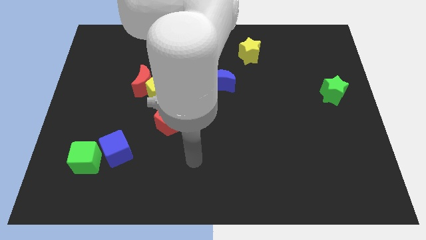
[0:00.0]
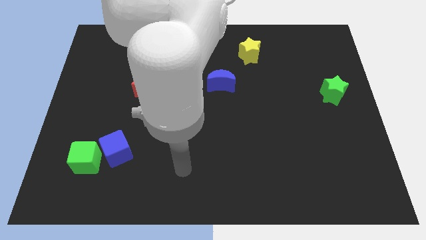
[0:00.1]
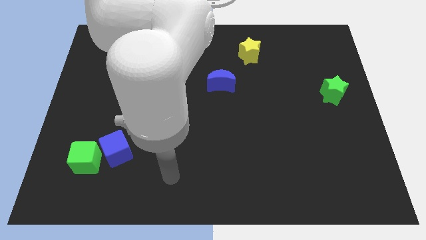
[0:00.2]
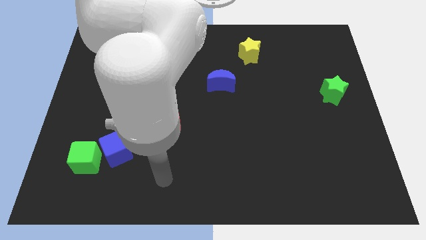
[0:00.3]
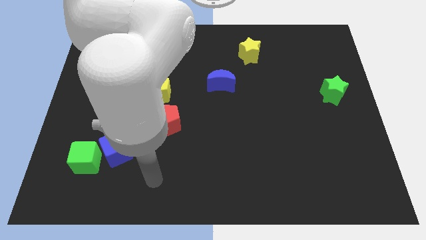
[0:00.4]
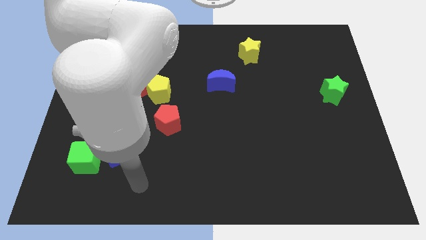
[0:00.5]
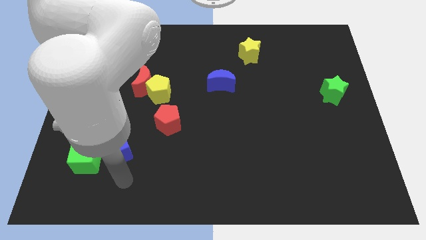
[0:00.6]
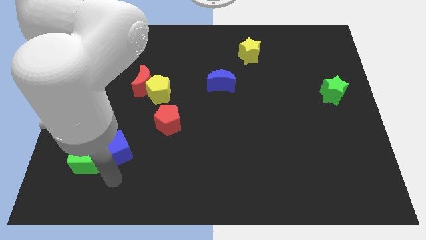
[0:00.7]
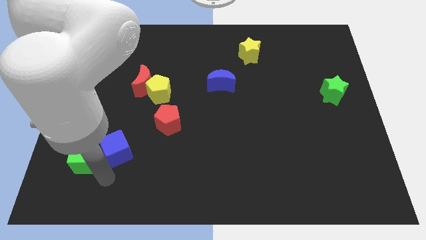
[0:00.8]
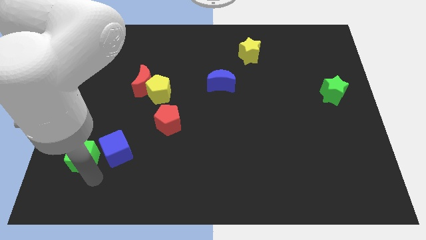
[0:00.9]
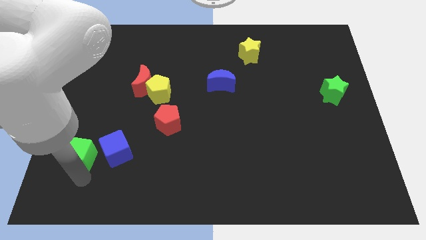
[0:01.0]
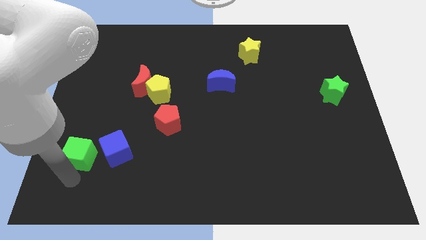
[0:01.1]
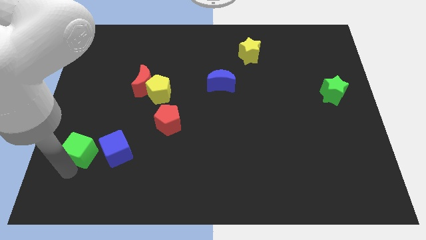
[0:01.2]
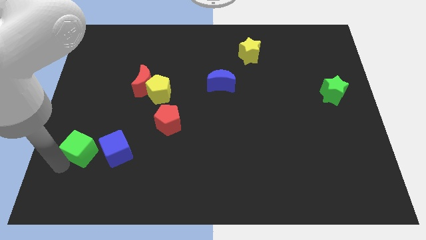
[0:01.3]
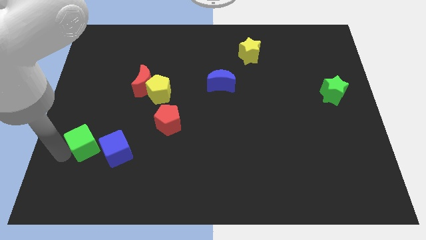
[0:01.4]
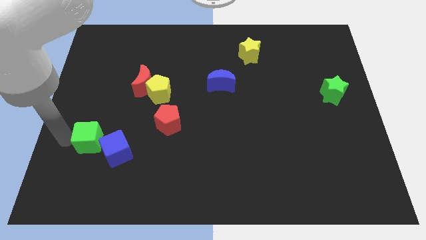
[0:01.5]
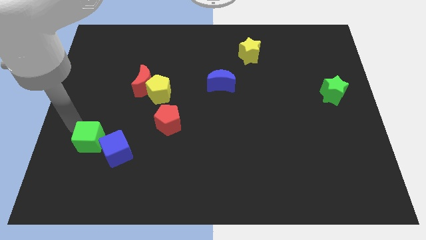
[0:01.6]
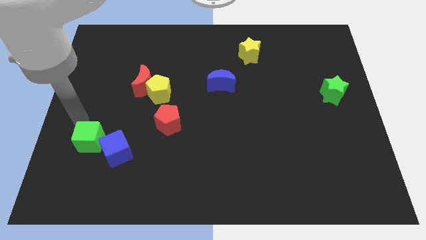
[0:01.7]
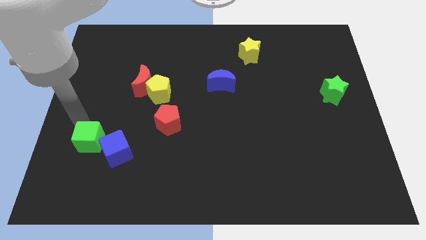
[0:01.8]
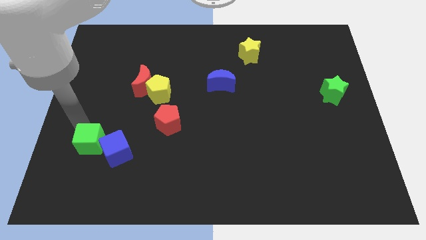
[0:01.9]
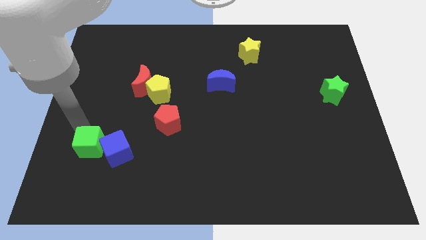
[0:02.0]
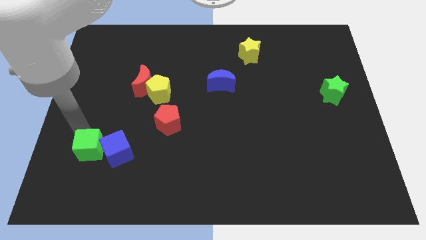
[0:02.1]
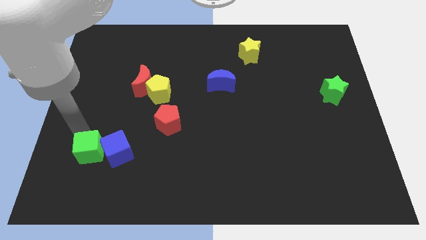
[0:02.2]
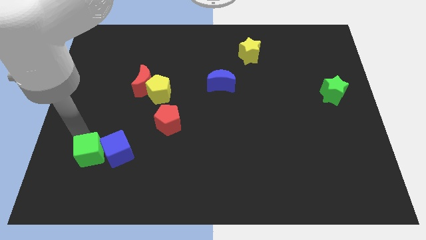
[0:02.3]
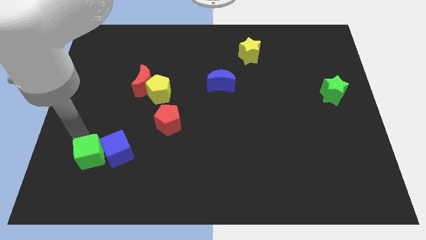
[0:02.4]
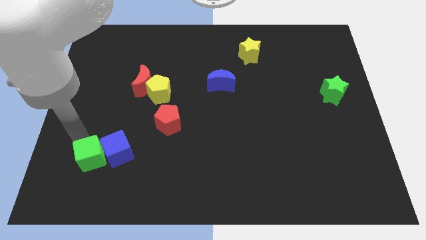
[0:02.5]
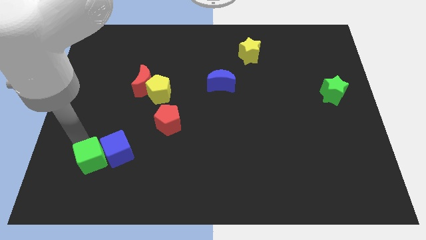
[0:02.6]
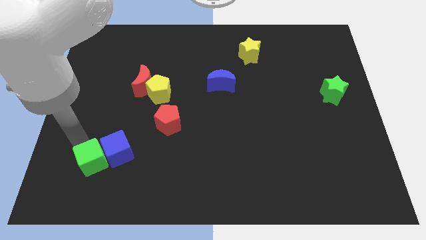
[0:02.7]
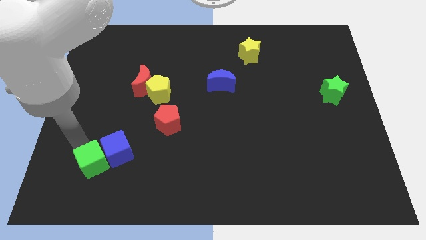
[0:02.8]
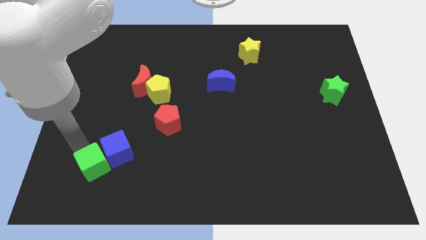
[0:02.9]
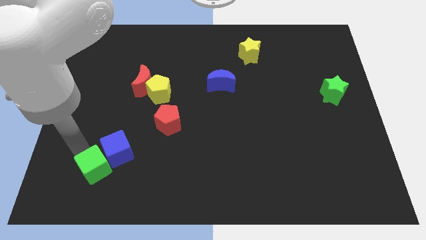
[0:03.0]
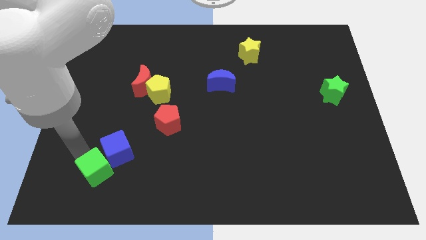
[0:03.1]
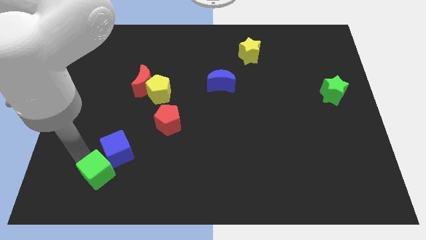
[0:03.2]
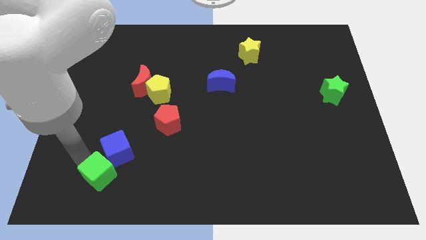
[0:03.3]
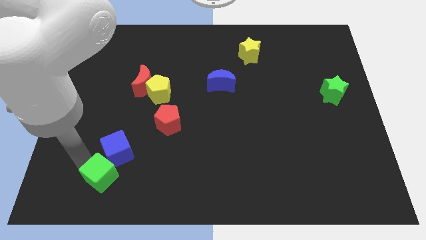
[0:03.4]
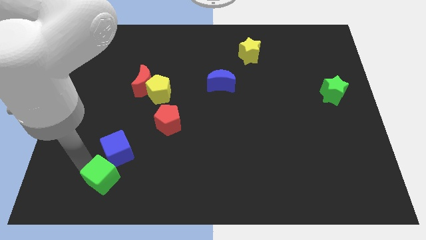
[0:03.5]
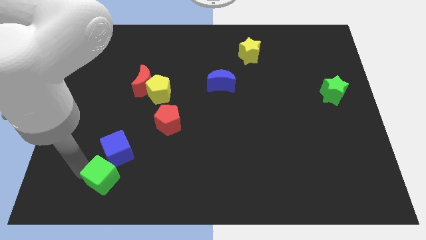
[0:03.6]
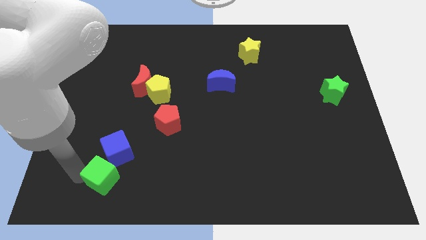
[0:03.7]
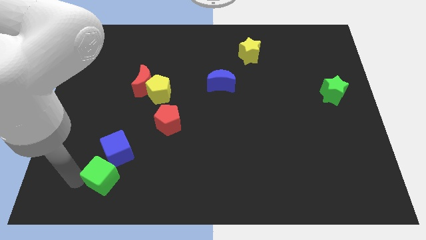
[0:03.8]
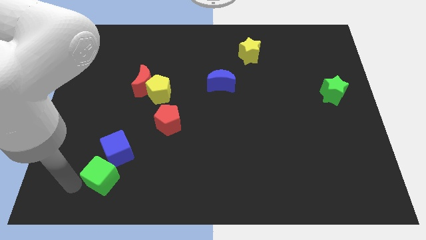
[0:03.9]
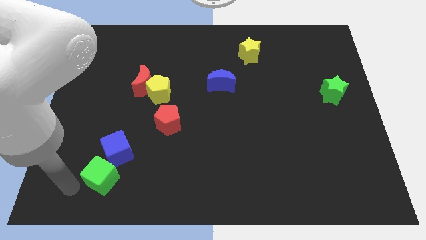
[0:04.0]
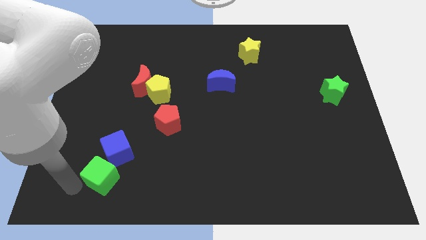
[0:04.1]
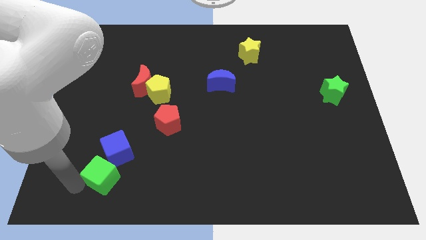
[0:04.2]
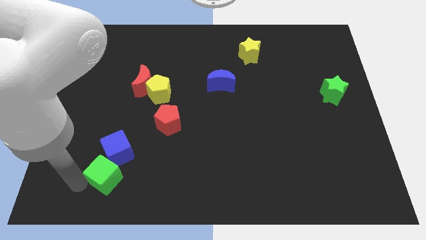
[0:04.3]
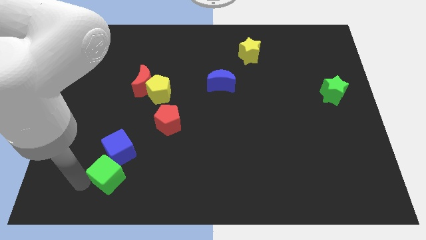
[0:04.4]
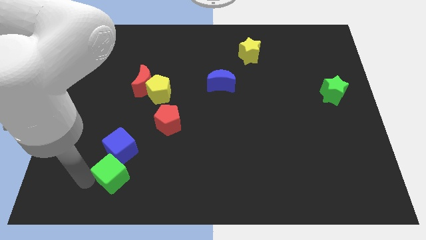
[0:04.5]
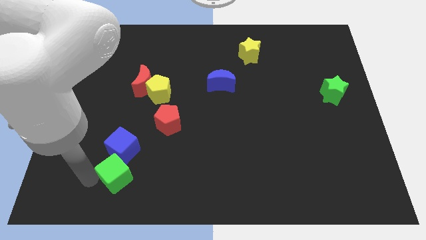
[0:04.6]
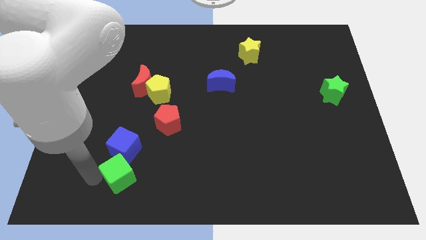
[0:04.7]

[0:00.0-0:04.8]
move the green cube right a little

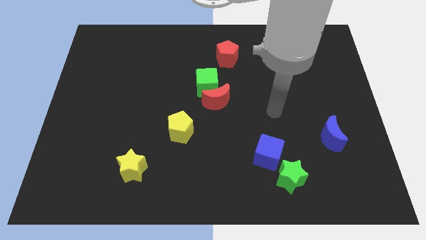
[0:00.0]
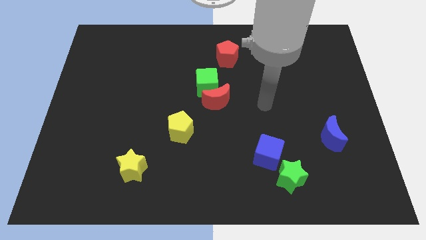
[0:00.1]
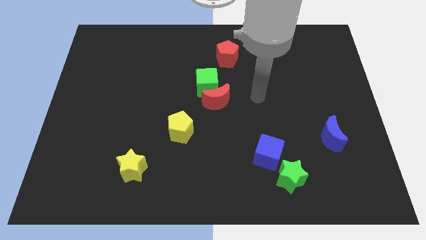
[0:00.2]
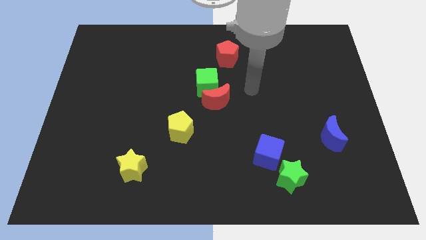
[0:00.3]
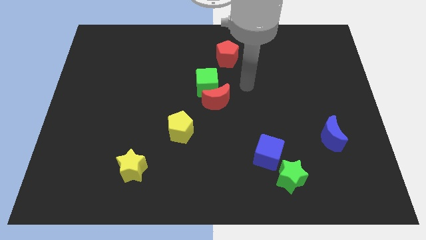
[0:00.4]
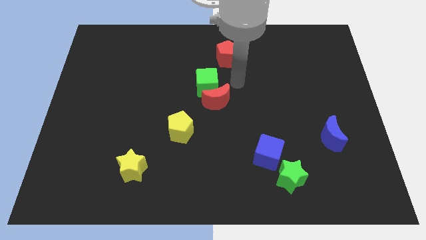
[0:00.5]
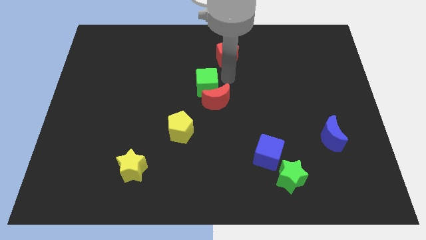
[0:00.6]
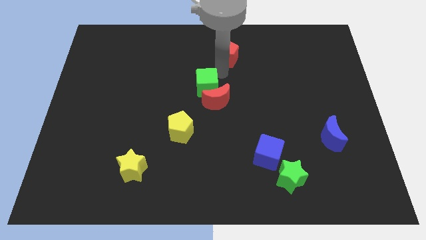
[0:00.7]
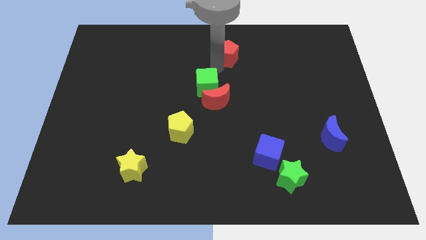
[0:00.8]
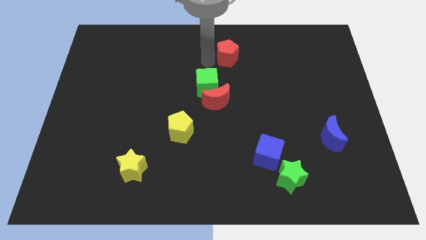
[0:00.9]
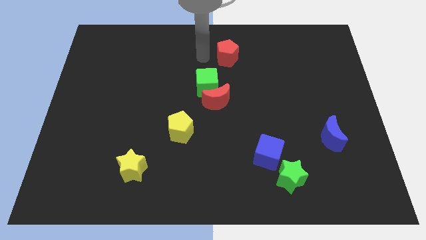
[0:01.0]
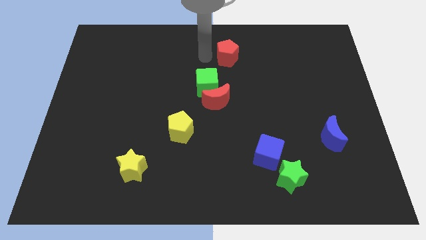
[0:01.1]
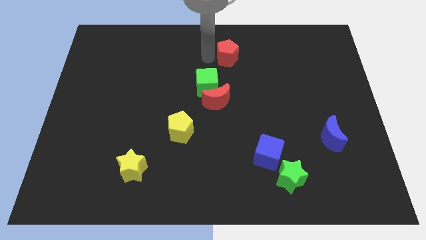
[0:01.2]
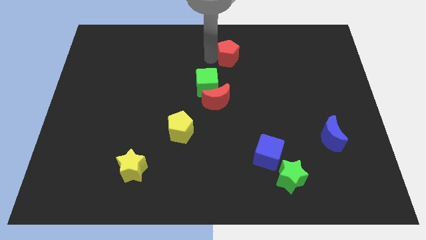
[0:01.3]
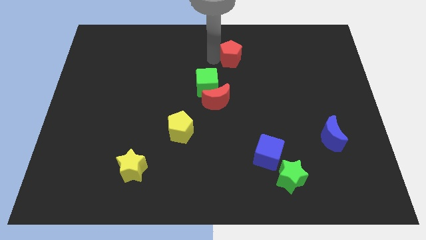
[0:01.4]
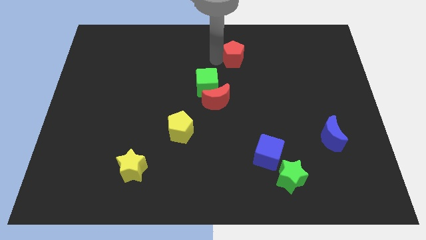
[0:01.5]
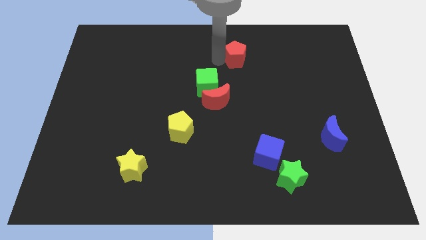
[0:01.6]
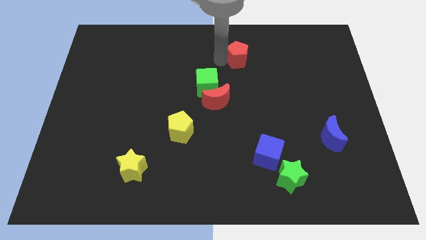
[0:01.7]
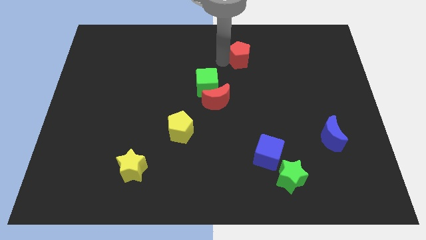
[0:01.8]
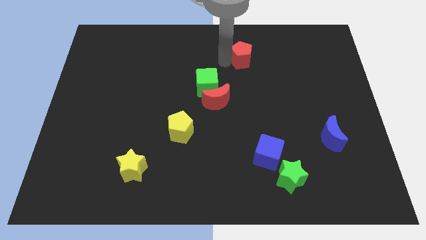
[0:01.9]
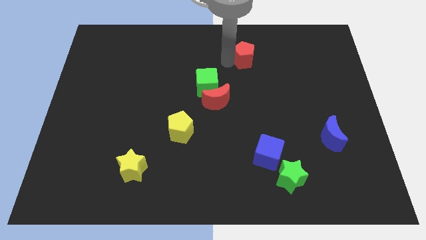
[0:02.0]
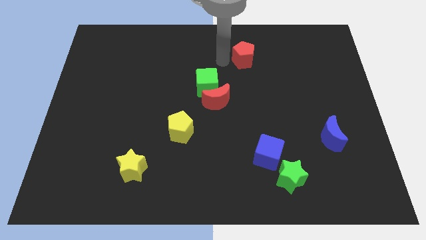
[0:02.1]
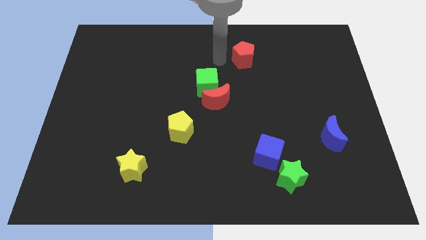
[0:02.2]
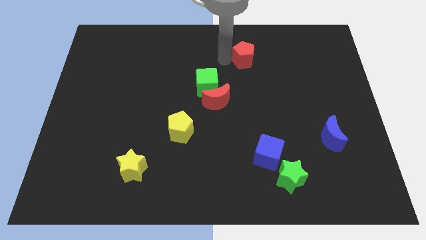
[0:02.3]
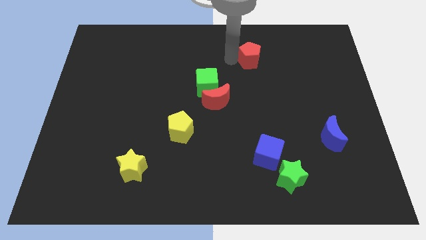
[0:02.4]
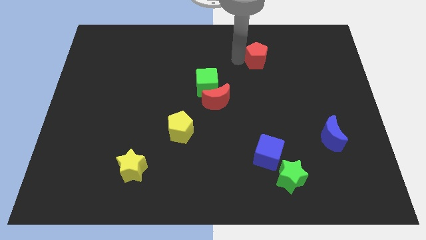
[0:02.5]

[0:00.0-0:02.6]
push the red pentagon somewhat to the right

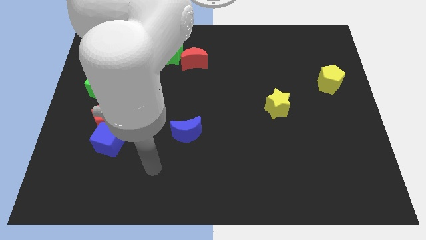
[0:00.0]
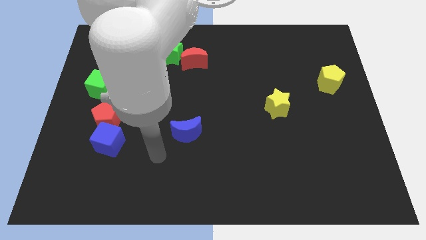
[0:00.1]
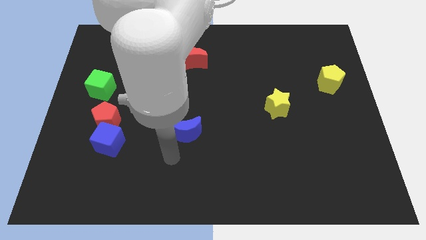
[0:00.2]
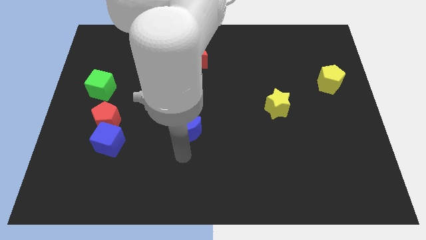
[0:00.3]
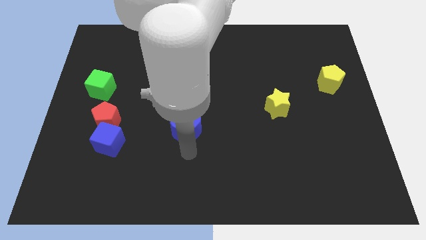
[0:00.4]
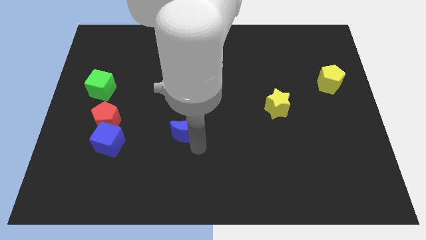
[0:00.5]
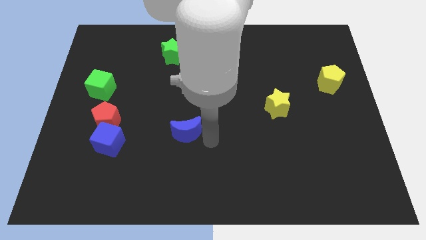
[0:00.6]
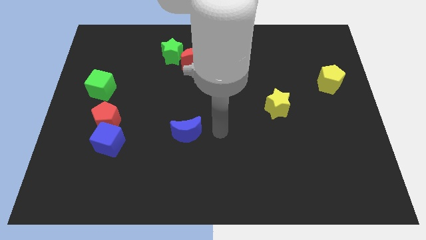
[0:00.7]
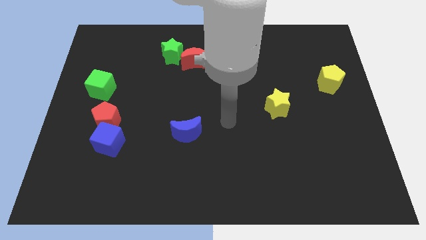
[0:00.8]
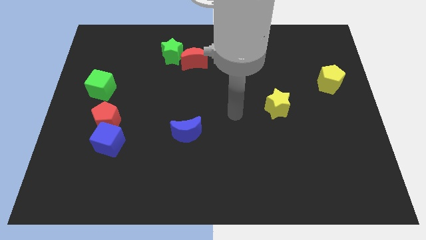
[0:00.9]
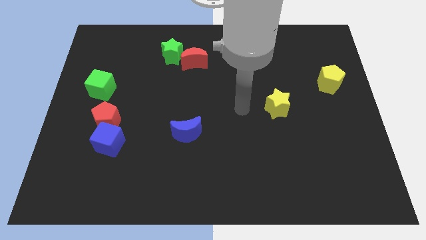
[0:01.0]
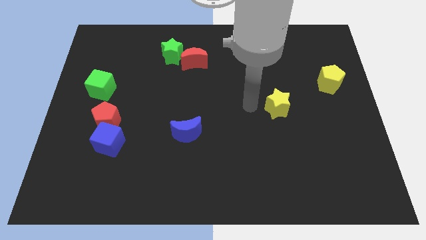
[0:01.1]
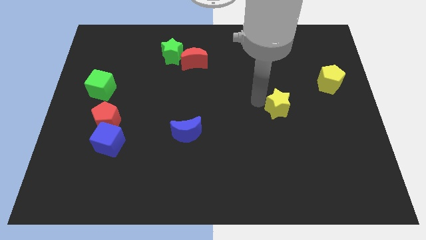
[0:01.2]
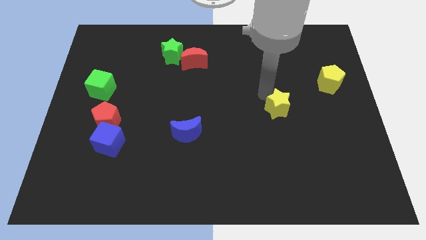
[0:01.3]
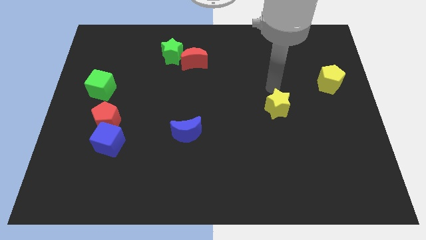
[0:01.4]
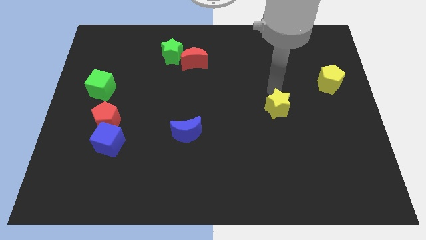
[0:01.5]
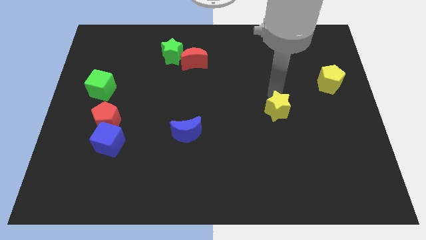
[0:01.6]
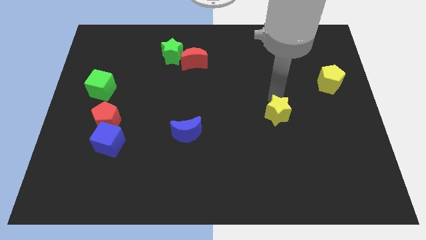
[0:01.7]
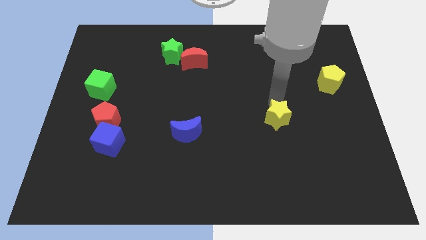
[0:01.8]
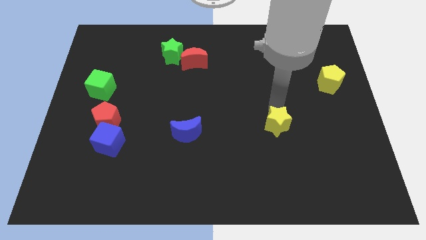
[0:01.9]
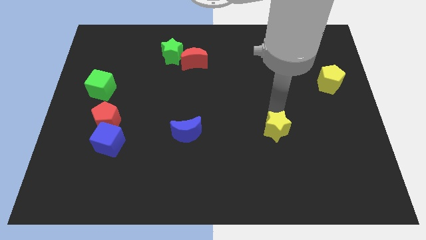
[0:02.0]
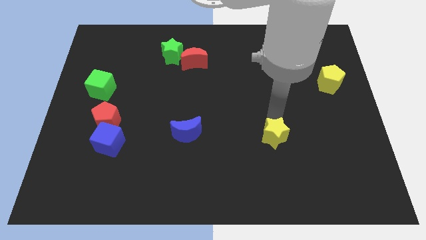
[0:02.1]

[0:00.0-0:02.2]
slightly move the yellow star down
